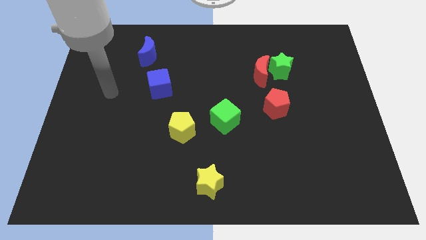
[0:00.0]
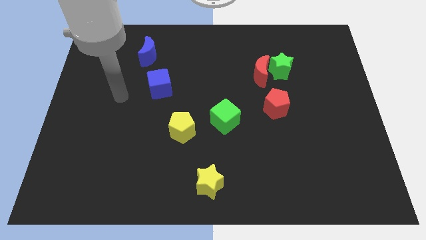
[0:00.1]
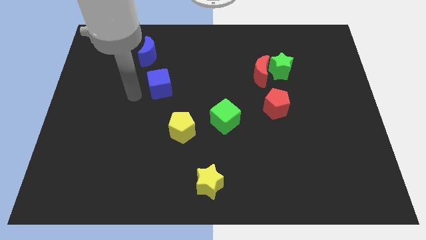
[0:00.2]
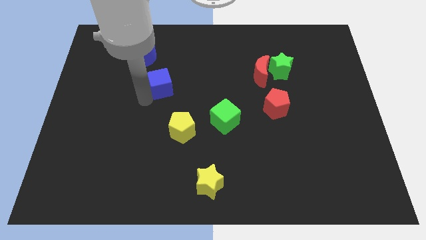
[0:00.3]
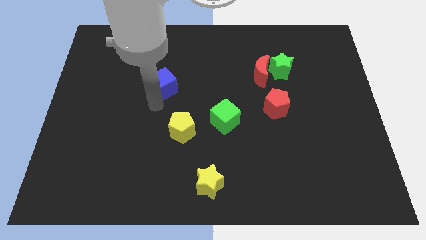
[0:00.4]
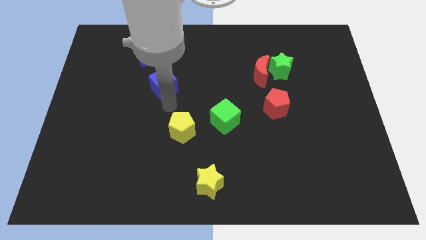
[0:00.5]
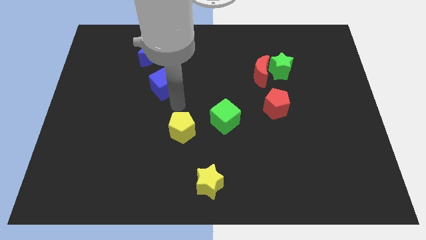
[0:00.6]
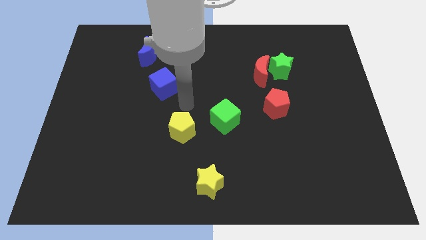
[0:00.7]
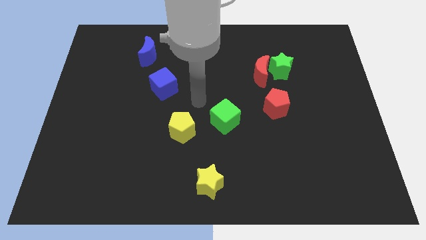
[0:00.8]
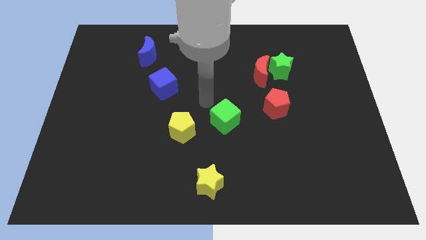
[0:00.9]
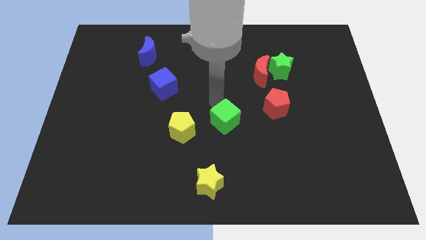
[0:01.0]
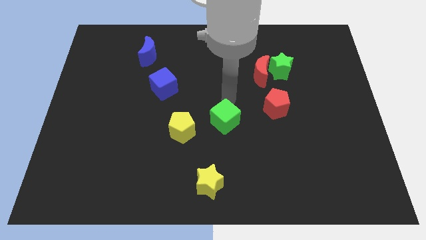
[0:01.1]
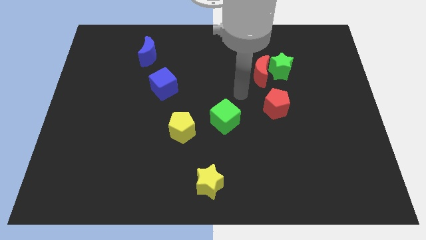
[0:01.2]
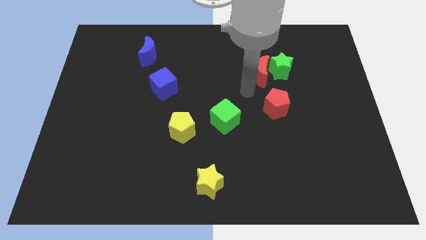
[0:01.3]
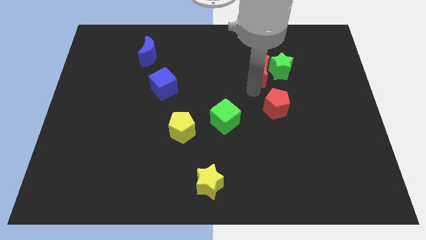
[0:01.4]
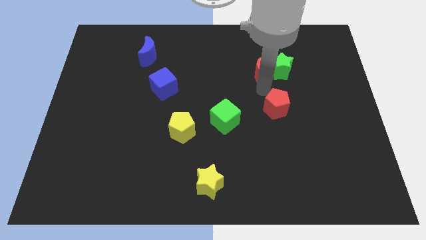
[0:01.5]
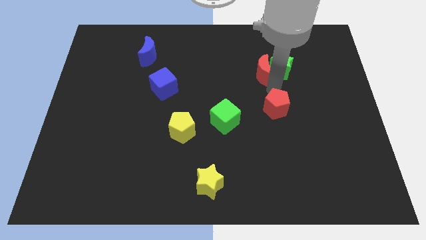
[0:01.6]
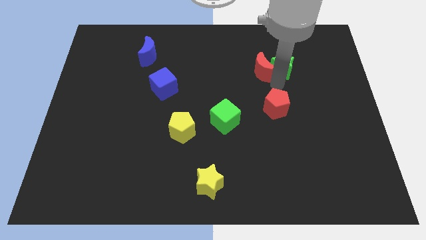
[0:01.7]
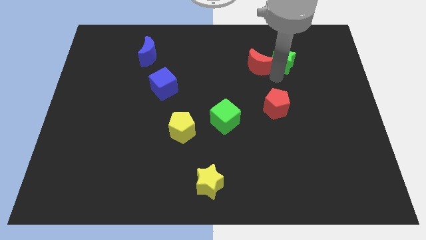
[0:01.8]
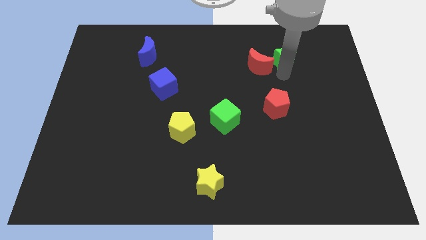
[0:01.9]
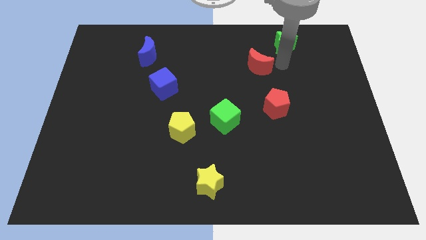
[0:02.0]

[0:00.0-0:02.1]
move the red moon away from the green star

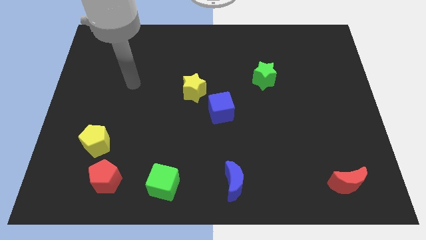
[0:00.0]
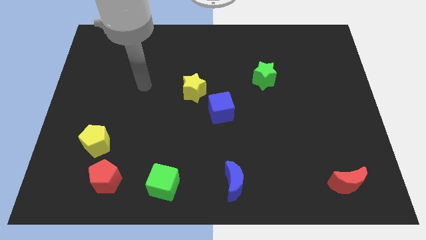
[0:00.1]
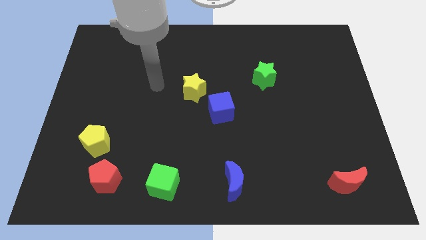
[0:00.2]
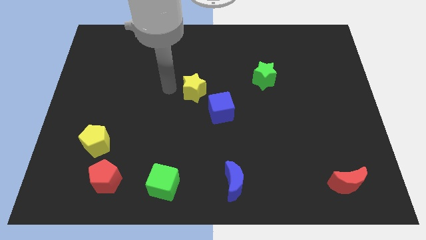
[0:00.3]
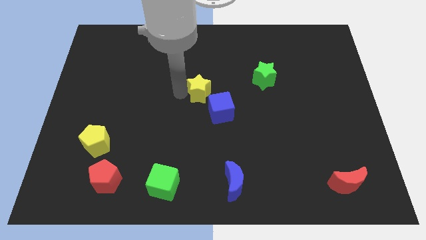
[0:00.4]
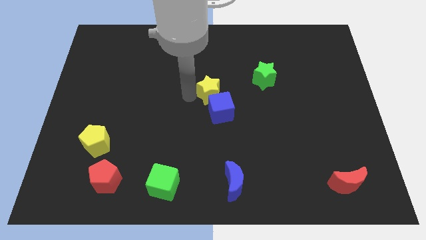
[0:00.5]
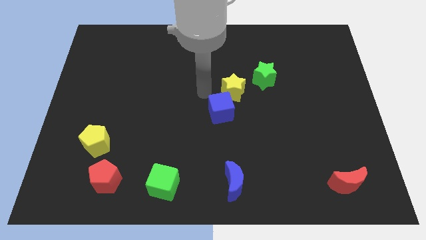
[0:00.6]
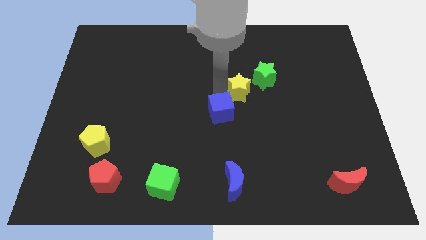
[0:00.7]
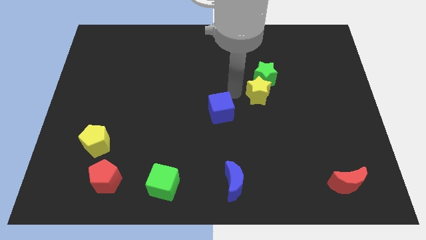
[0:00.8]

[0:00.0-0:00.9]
separate the blue cube from the yellow star

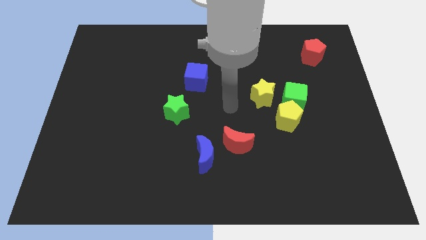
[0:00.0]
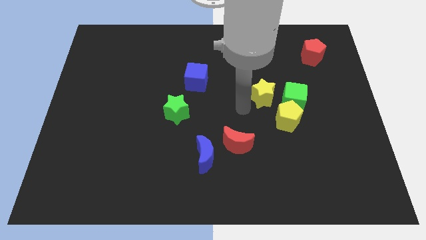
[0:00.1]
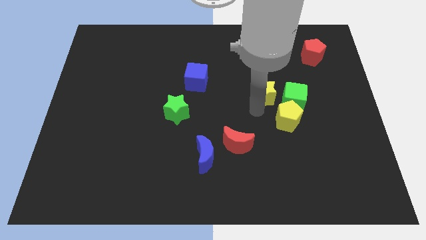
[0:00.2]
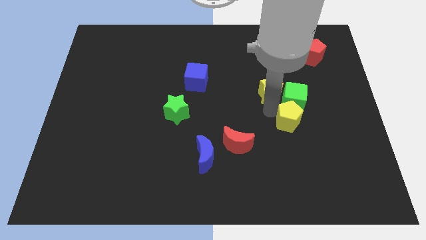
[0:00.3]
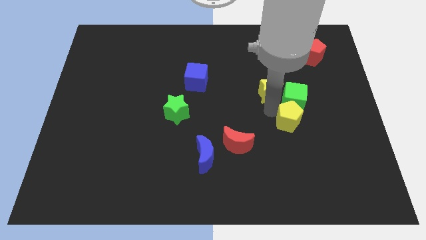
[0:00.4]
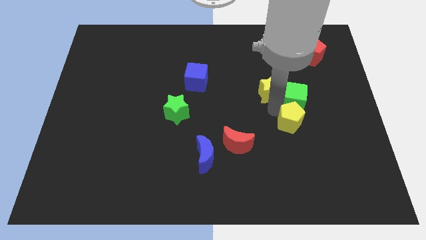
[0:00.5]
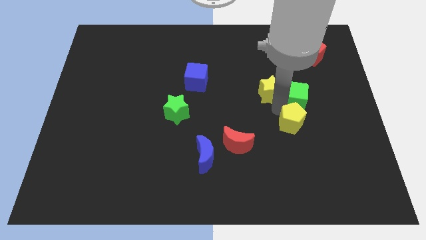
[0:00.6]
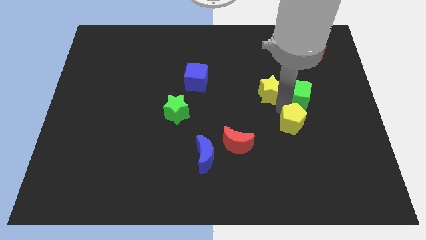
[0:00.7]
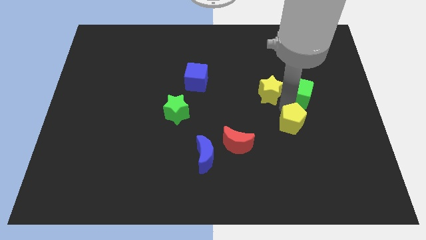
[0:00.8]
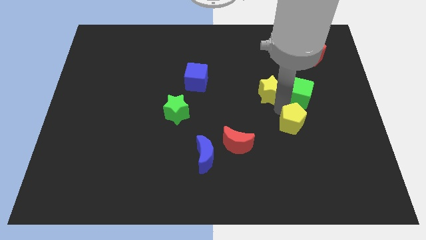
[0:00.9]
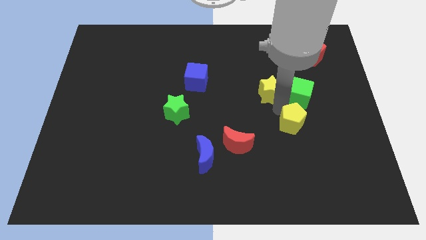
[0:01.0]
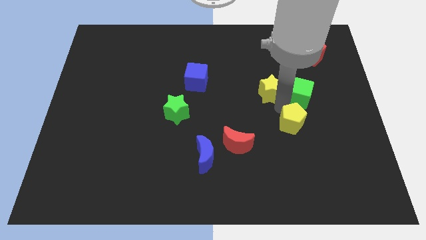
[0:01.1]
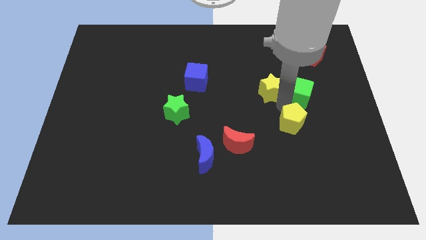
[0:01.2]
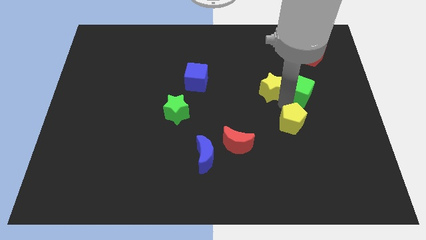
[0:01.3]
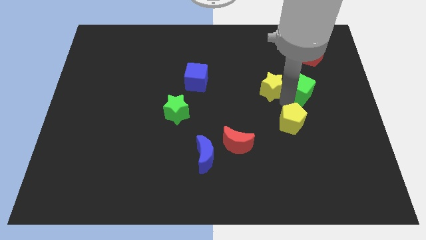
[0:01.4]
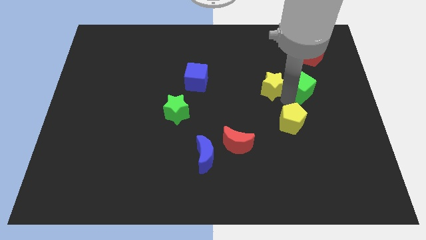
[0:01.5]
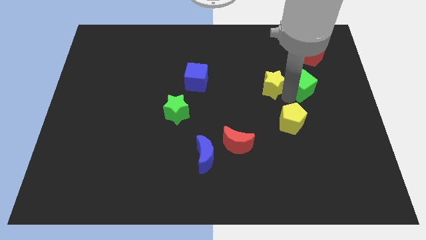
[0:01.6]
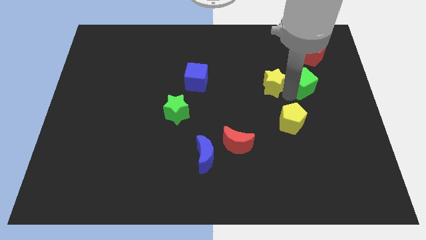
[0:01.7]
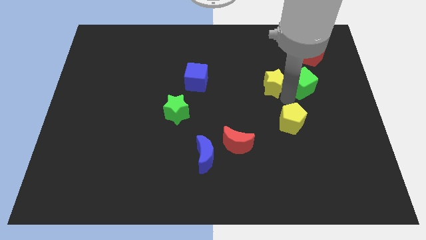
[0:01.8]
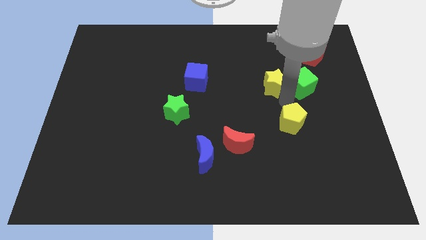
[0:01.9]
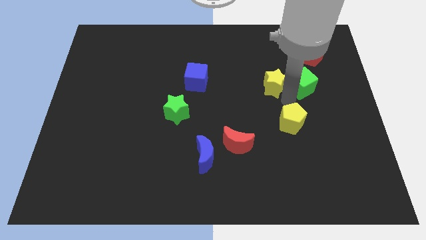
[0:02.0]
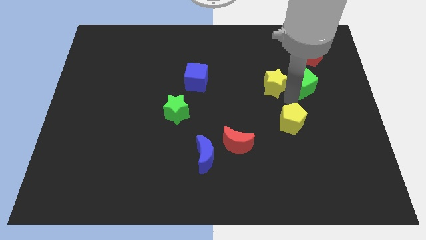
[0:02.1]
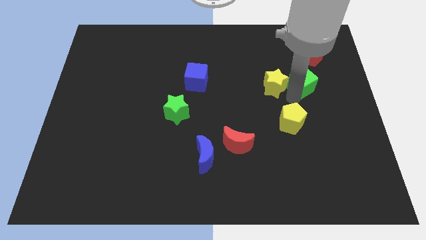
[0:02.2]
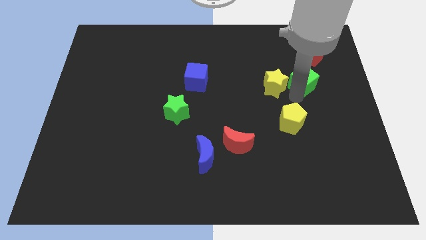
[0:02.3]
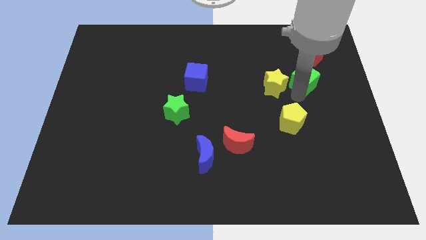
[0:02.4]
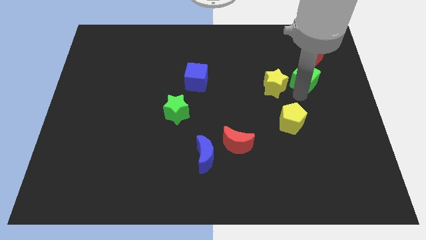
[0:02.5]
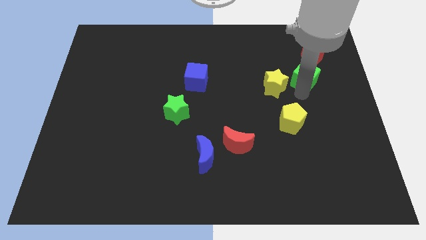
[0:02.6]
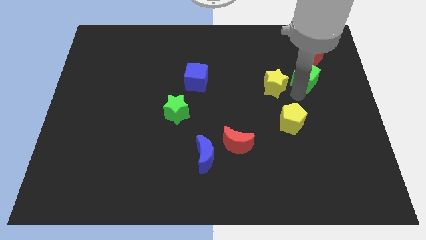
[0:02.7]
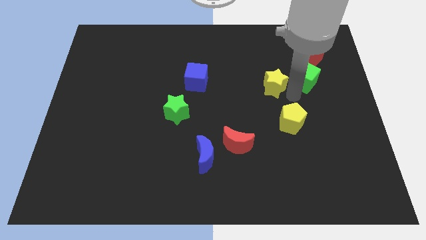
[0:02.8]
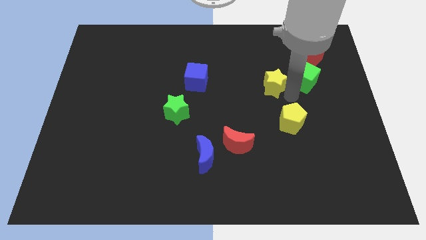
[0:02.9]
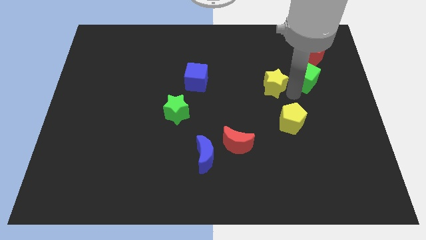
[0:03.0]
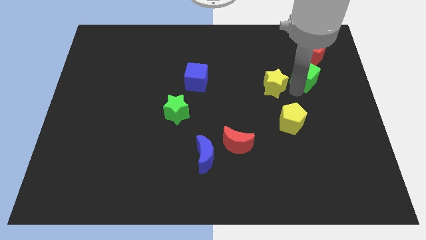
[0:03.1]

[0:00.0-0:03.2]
pull the green cube apart from the yellow pentagon and yellow star

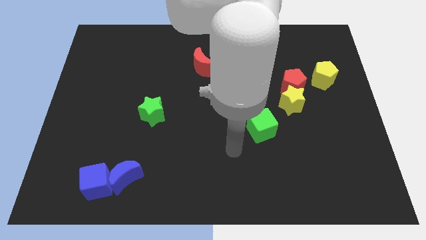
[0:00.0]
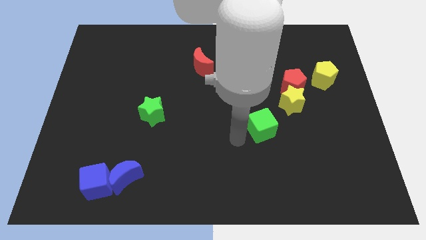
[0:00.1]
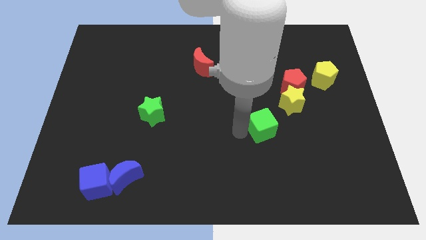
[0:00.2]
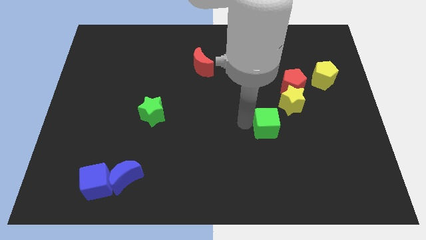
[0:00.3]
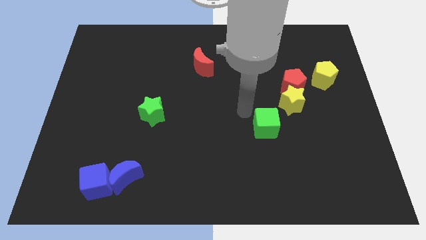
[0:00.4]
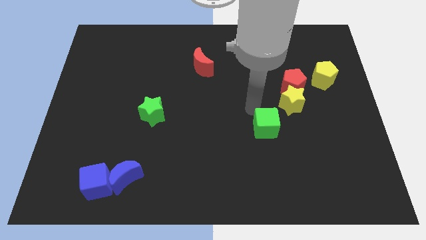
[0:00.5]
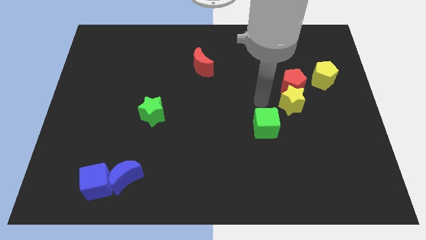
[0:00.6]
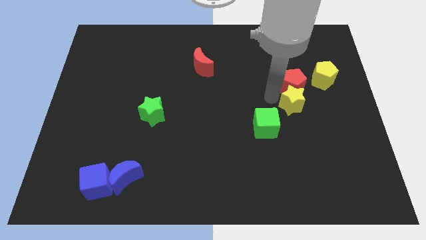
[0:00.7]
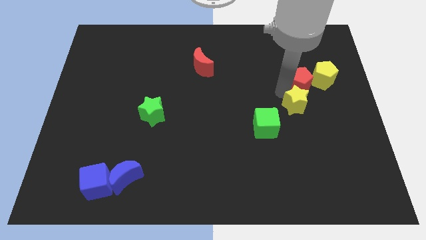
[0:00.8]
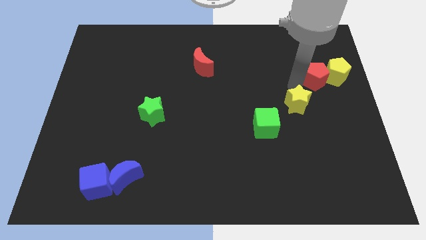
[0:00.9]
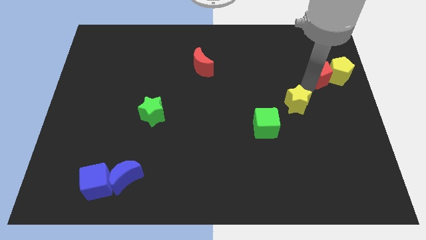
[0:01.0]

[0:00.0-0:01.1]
pull the yellow star apart from the red pentagon

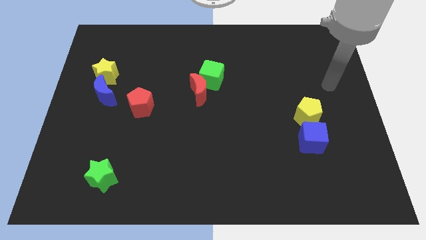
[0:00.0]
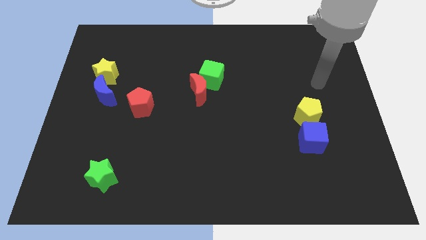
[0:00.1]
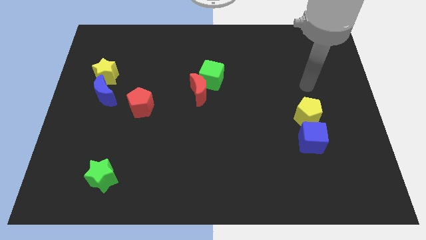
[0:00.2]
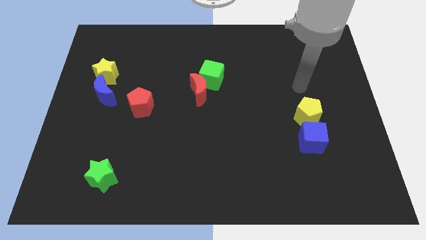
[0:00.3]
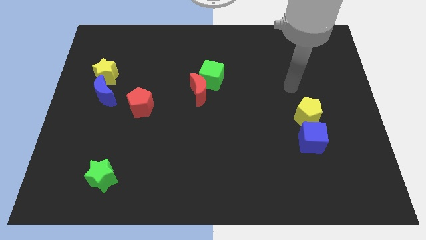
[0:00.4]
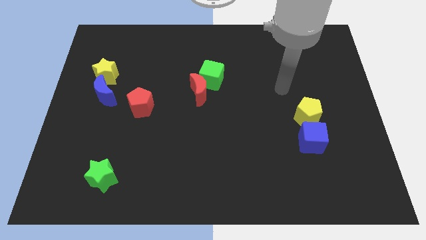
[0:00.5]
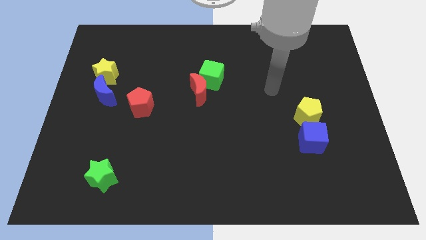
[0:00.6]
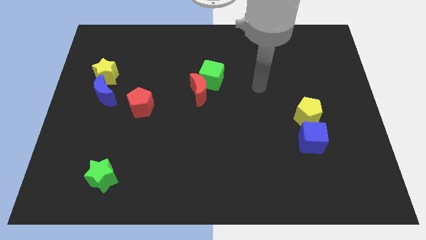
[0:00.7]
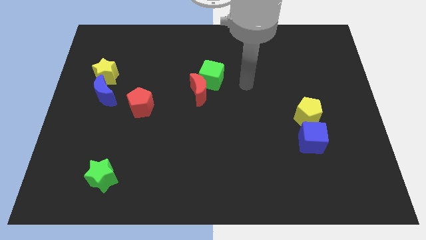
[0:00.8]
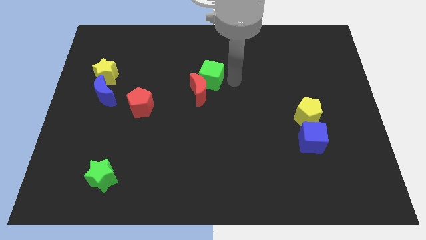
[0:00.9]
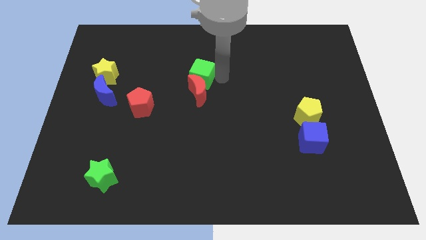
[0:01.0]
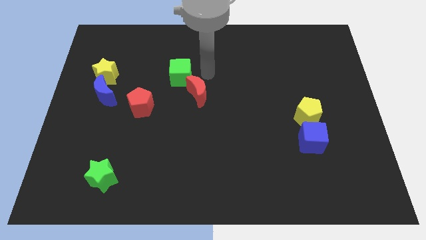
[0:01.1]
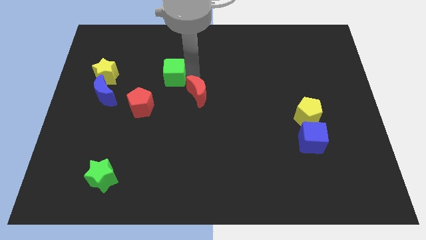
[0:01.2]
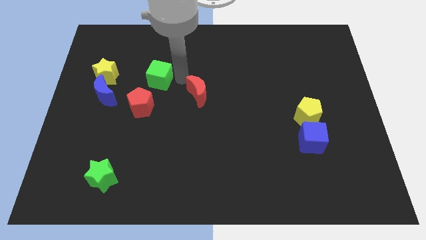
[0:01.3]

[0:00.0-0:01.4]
pull the red moon apart from the green cube

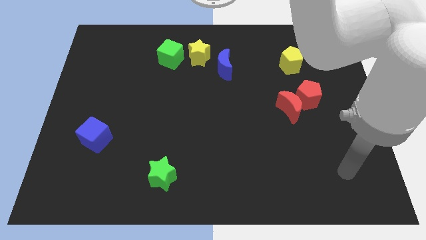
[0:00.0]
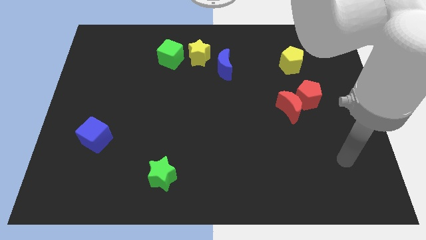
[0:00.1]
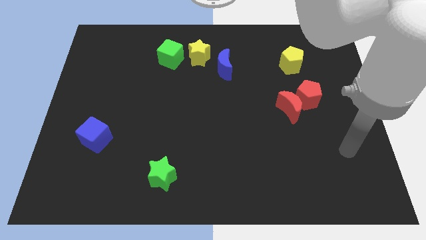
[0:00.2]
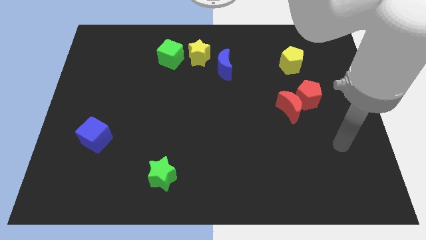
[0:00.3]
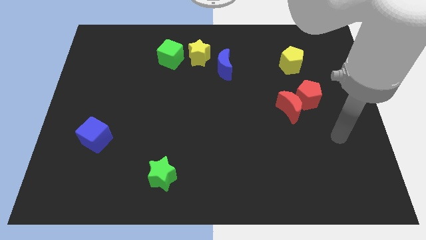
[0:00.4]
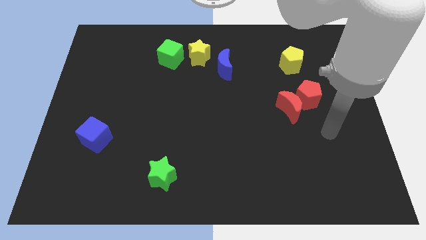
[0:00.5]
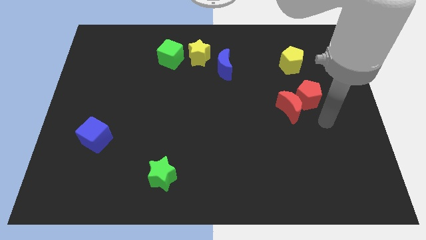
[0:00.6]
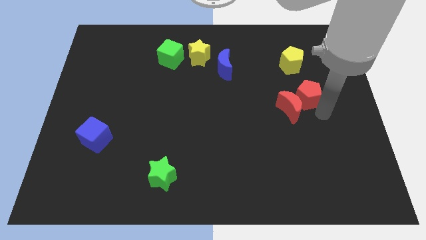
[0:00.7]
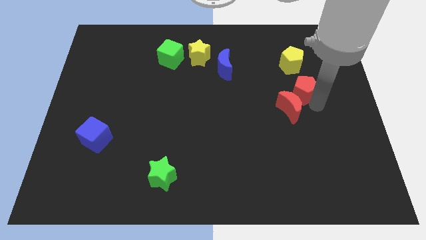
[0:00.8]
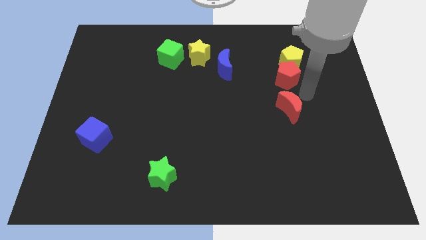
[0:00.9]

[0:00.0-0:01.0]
move the red moon away from the red pentagon
